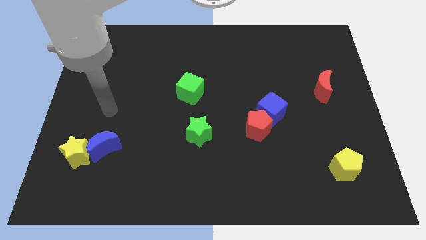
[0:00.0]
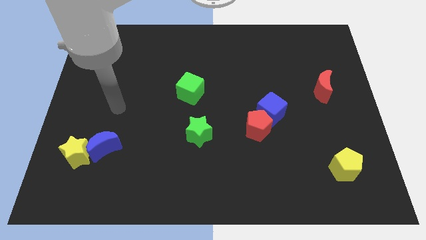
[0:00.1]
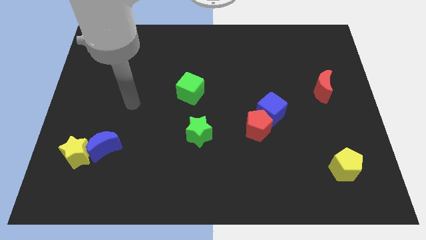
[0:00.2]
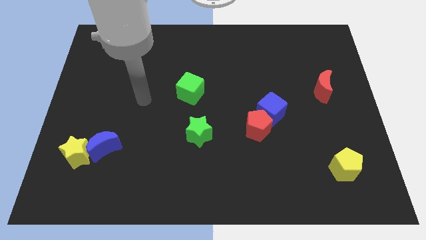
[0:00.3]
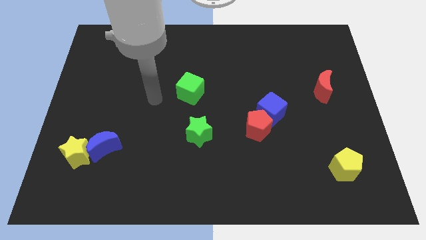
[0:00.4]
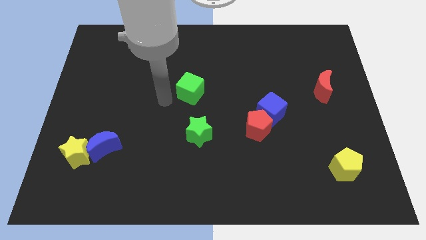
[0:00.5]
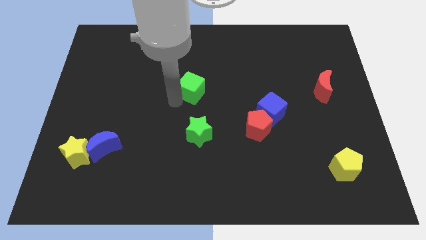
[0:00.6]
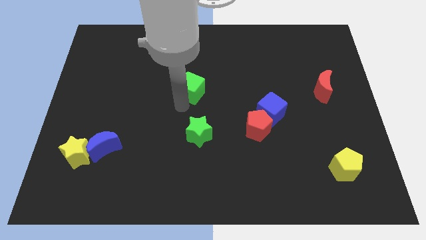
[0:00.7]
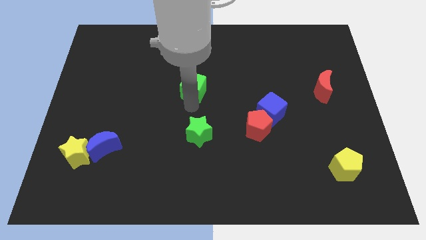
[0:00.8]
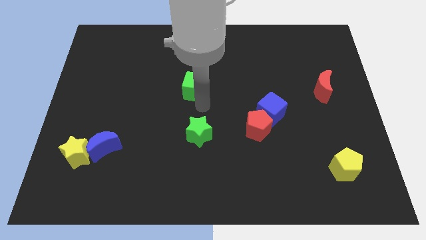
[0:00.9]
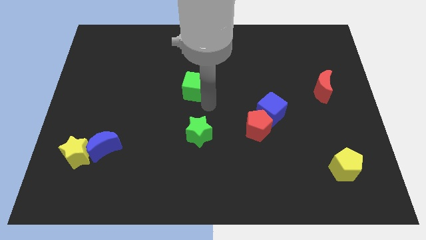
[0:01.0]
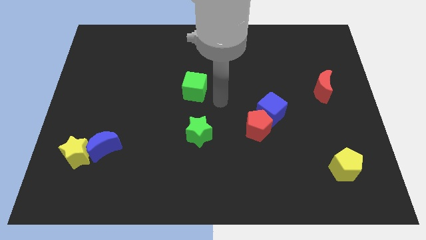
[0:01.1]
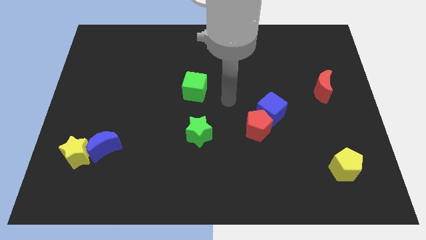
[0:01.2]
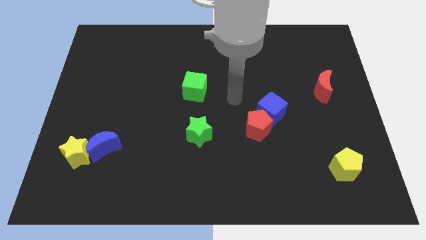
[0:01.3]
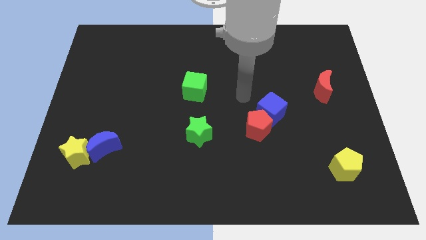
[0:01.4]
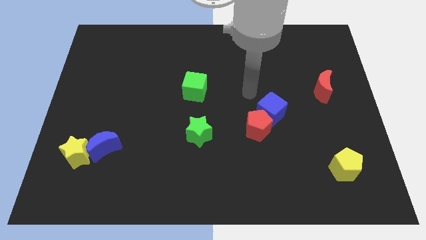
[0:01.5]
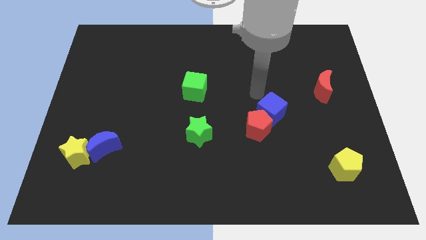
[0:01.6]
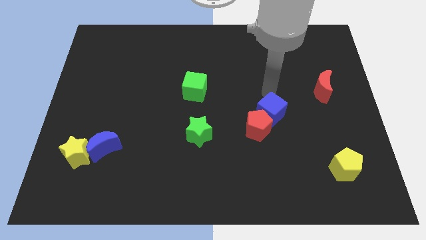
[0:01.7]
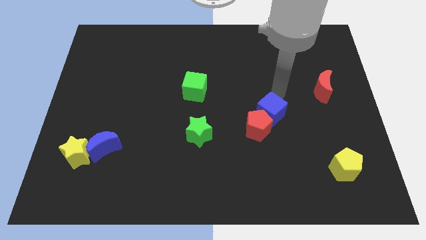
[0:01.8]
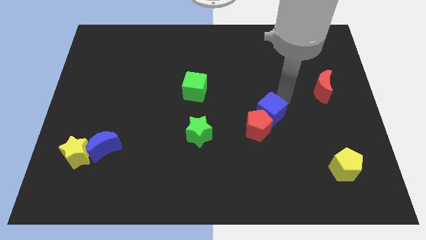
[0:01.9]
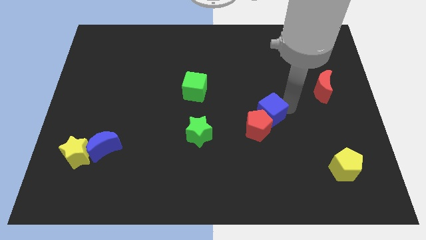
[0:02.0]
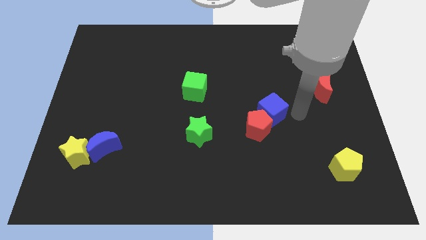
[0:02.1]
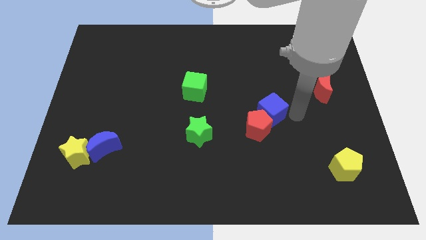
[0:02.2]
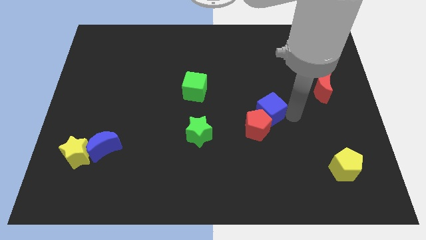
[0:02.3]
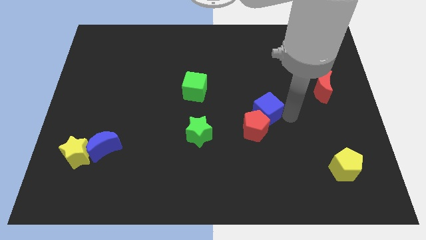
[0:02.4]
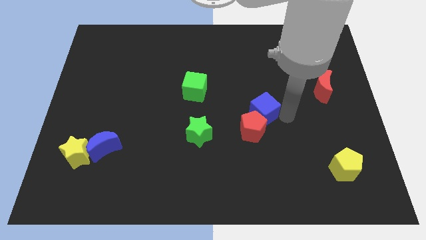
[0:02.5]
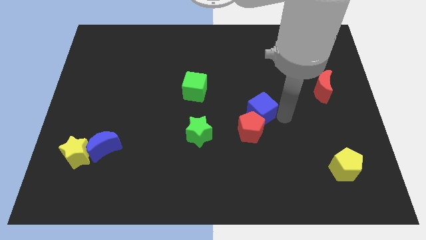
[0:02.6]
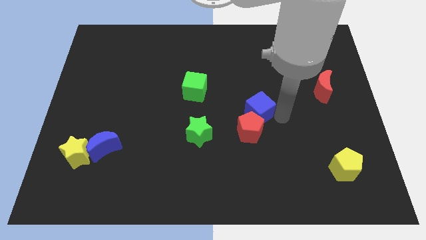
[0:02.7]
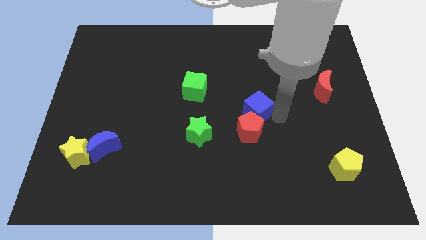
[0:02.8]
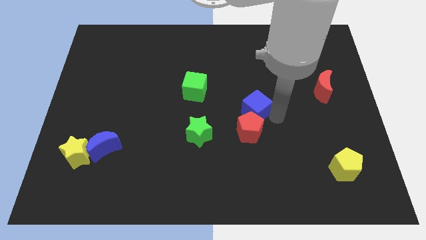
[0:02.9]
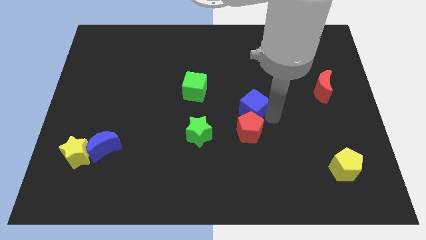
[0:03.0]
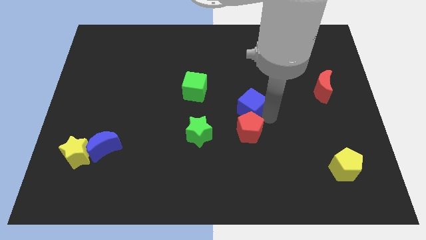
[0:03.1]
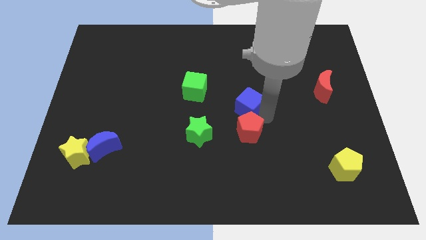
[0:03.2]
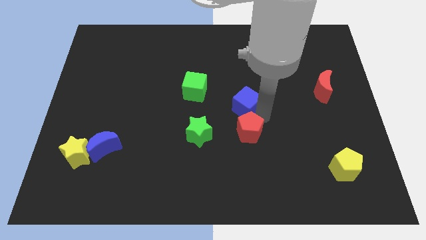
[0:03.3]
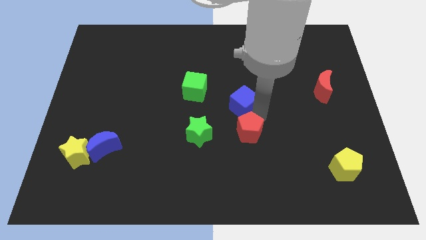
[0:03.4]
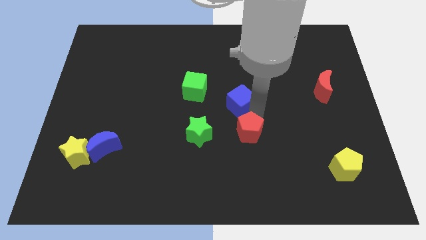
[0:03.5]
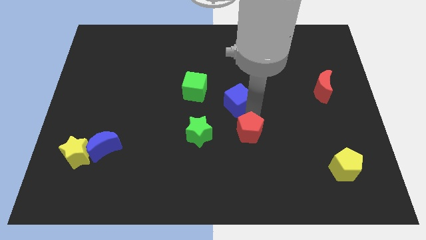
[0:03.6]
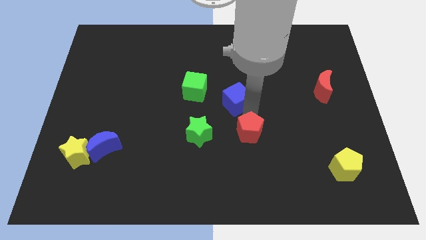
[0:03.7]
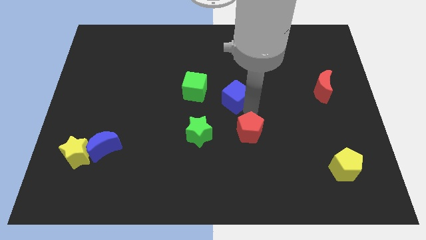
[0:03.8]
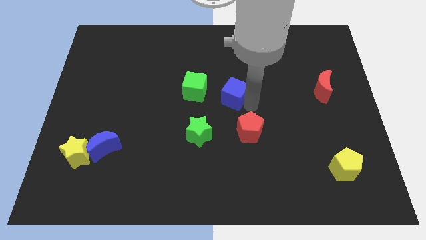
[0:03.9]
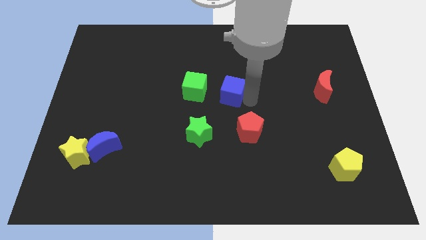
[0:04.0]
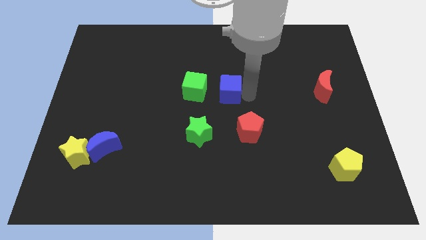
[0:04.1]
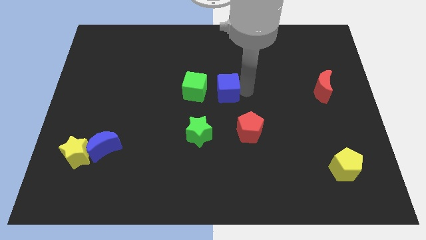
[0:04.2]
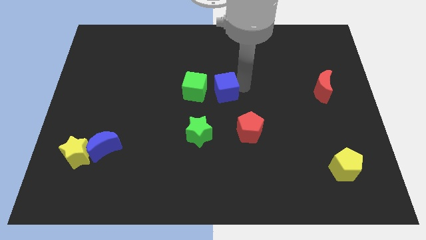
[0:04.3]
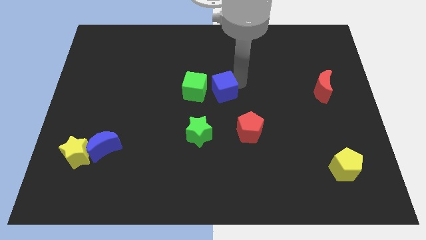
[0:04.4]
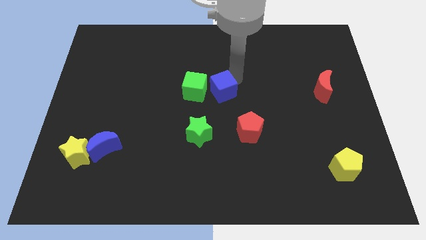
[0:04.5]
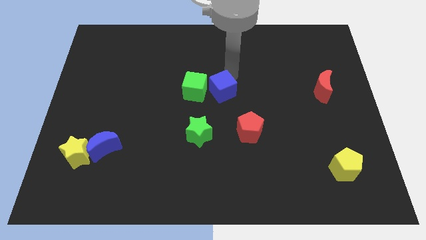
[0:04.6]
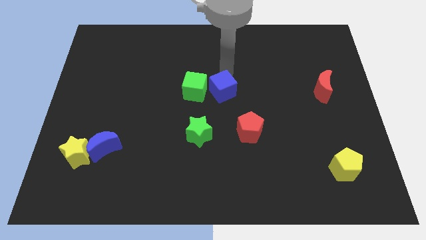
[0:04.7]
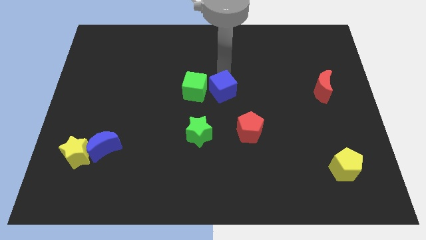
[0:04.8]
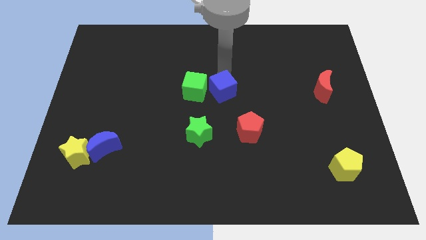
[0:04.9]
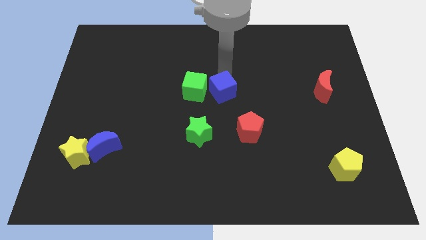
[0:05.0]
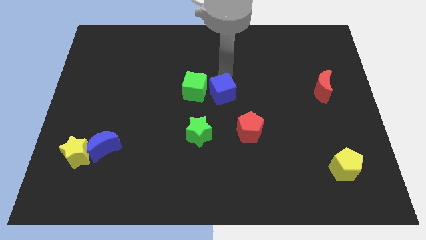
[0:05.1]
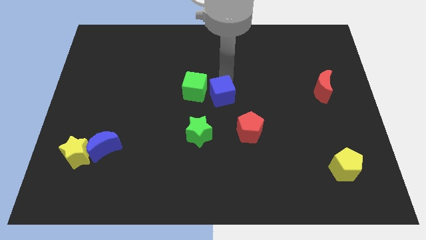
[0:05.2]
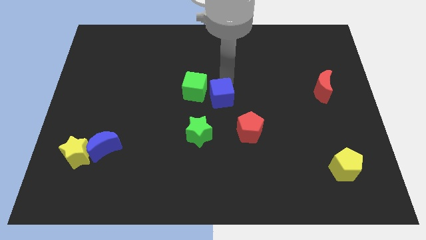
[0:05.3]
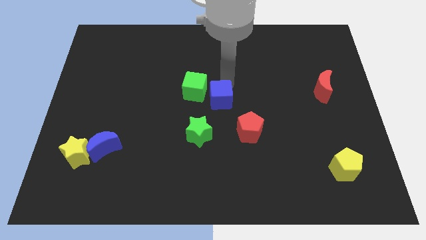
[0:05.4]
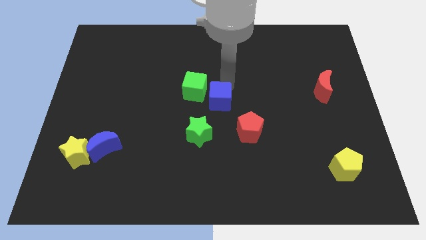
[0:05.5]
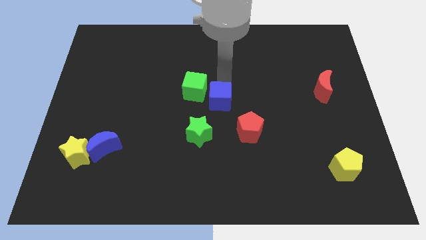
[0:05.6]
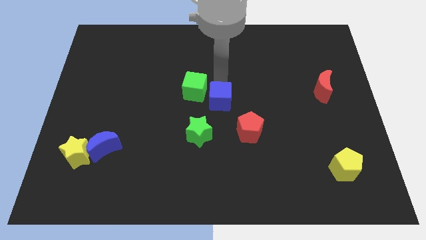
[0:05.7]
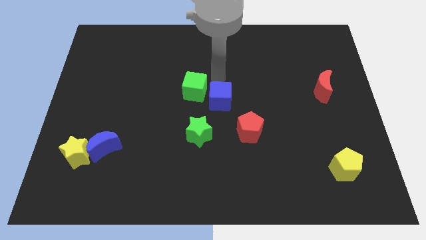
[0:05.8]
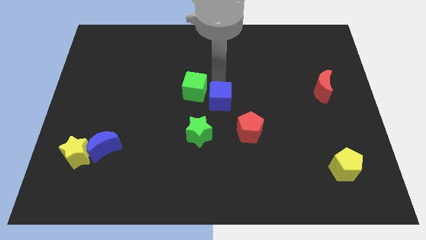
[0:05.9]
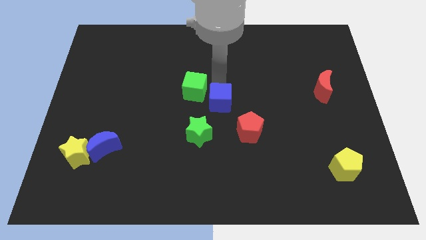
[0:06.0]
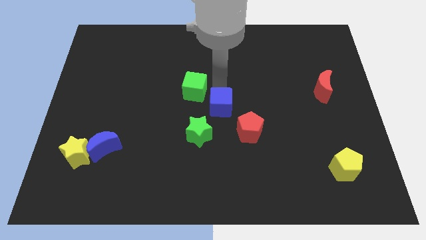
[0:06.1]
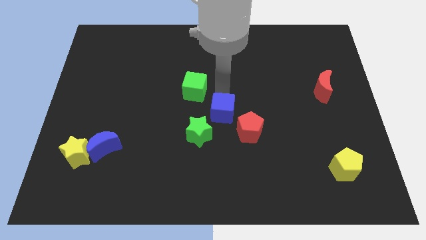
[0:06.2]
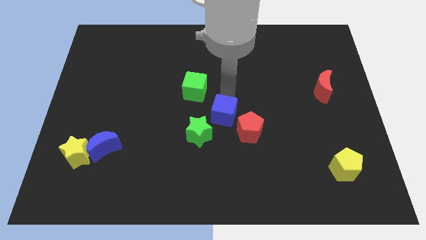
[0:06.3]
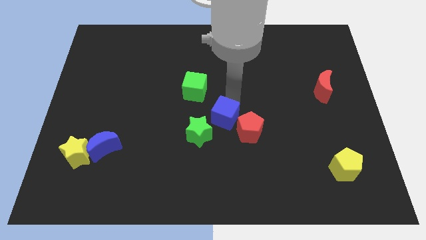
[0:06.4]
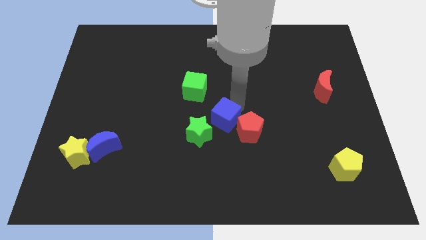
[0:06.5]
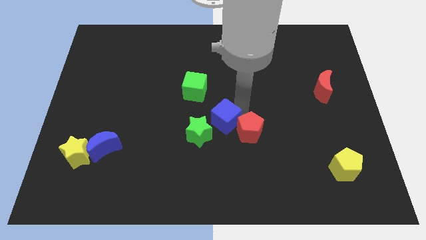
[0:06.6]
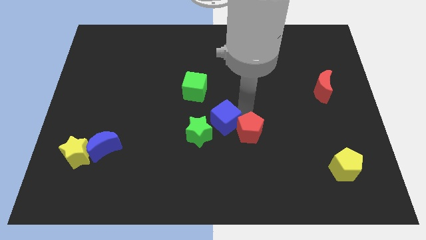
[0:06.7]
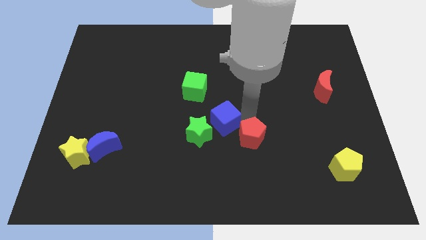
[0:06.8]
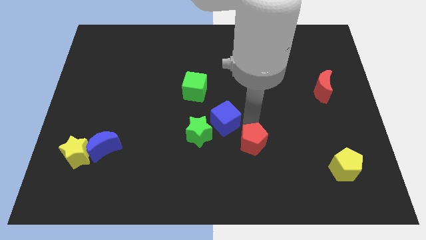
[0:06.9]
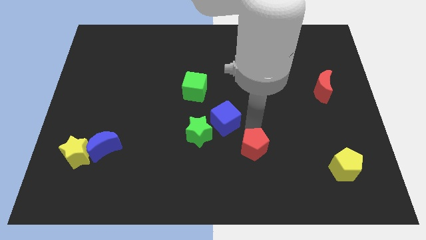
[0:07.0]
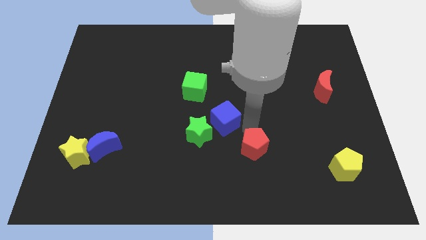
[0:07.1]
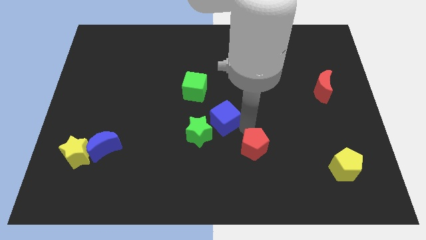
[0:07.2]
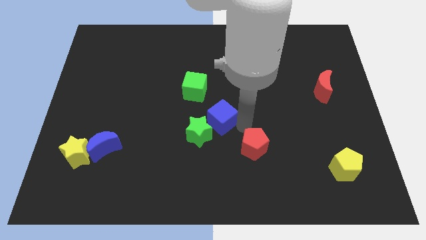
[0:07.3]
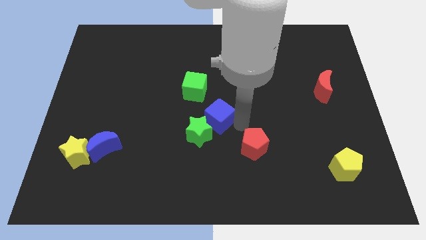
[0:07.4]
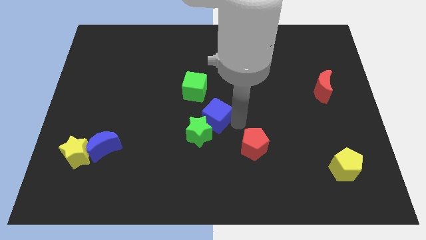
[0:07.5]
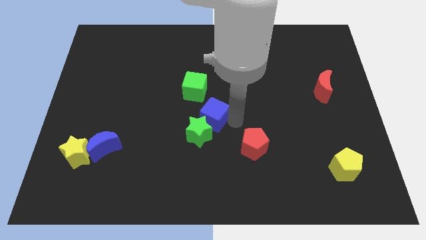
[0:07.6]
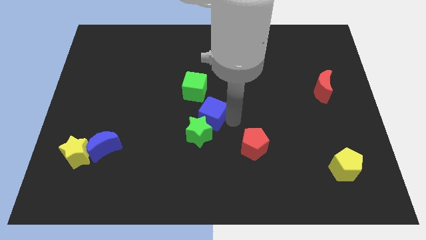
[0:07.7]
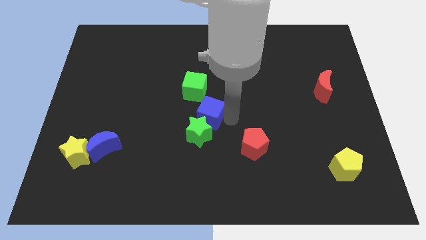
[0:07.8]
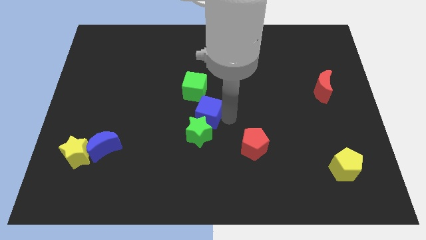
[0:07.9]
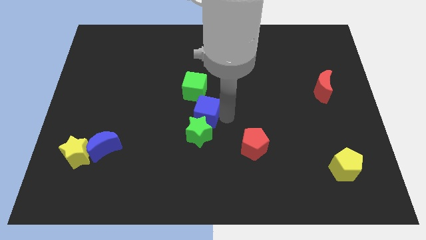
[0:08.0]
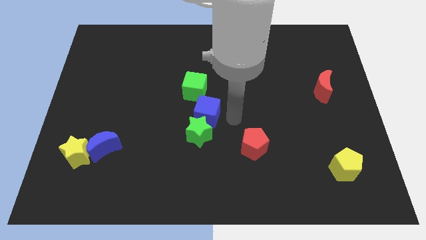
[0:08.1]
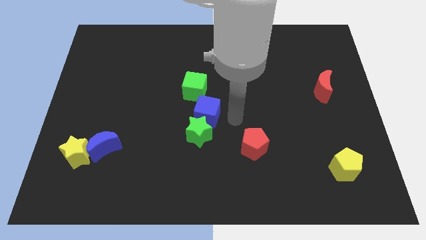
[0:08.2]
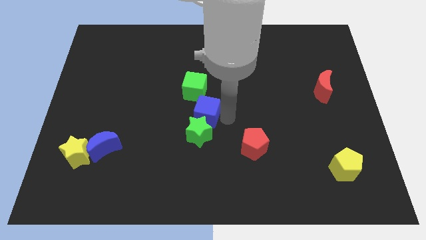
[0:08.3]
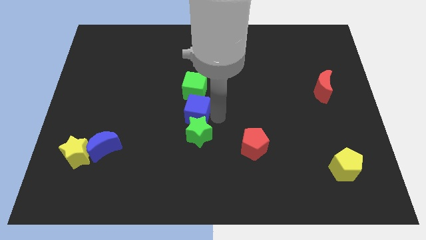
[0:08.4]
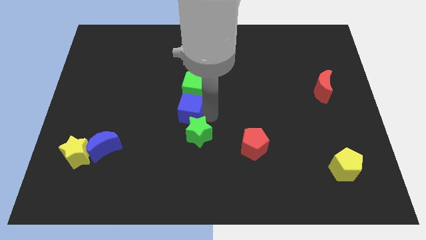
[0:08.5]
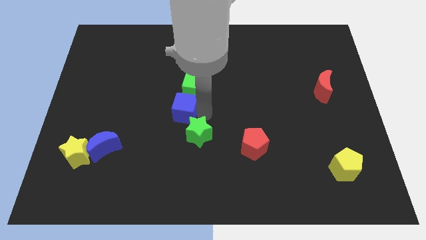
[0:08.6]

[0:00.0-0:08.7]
slide the blue cube left
